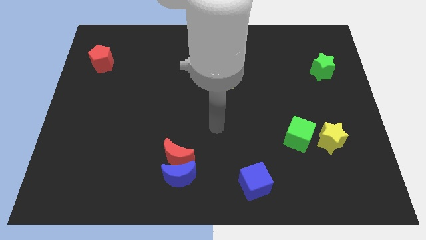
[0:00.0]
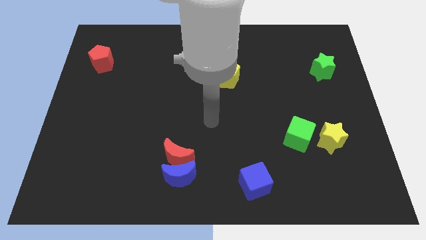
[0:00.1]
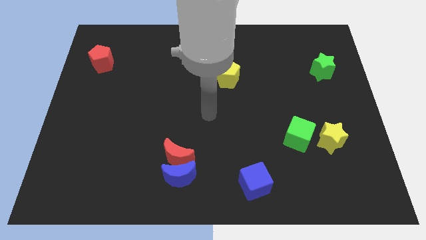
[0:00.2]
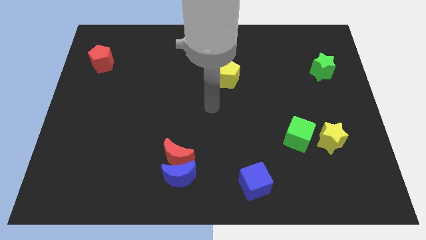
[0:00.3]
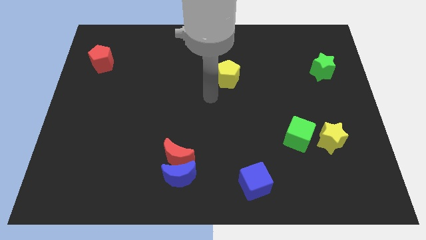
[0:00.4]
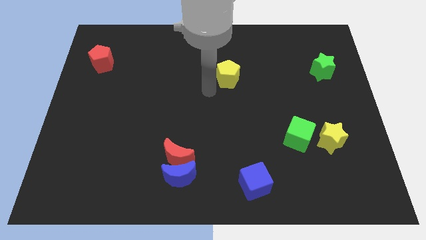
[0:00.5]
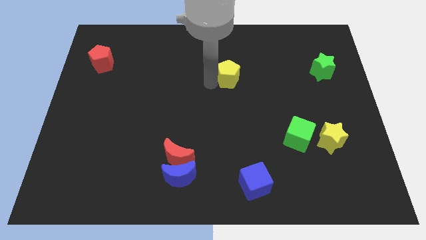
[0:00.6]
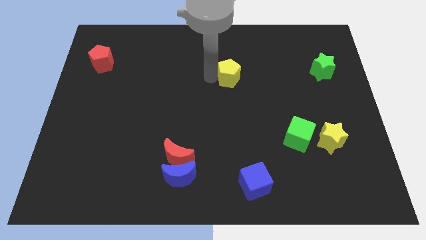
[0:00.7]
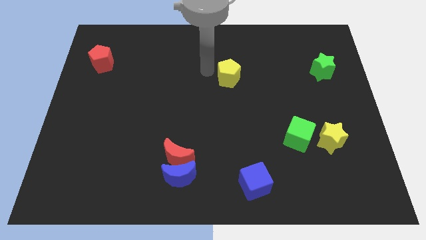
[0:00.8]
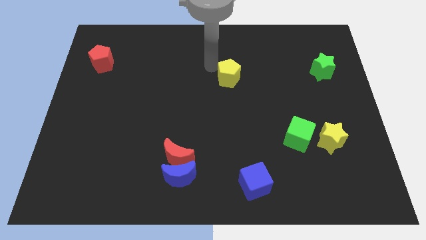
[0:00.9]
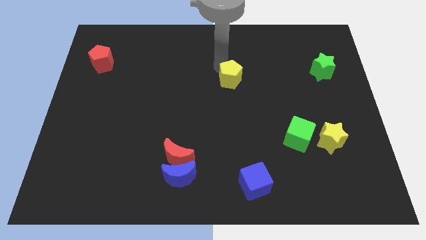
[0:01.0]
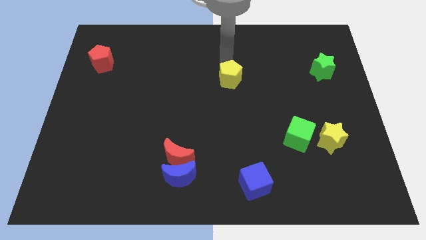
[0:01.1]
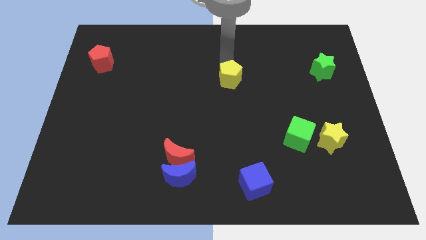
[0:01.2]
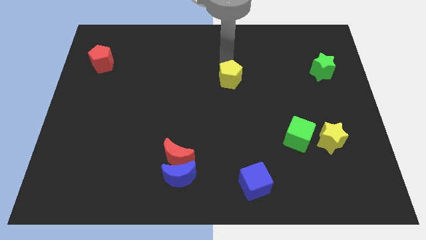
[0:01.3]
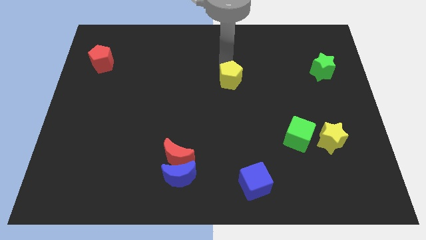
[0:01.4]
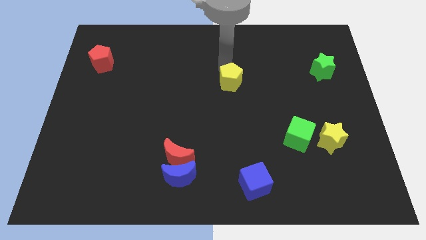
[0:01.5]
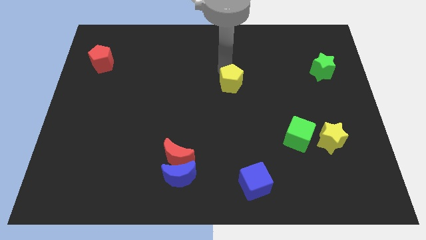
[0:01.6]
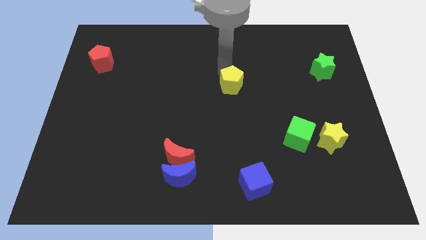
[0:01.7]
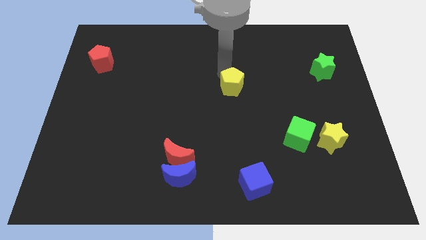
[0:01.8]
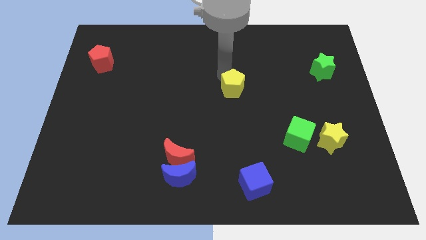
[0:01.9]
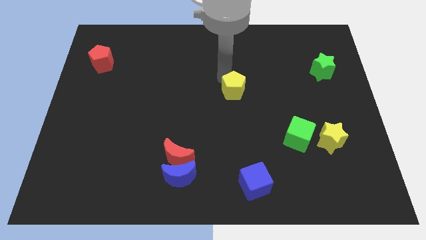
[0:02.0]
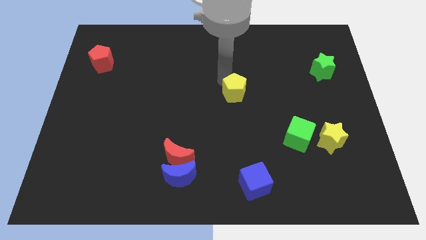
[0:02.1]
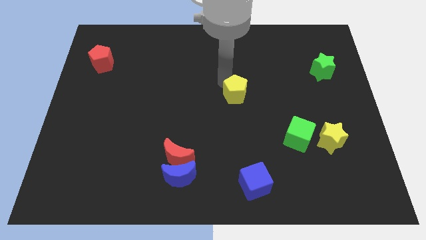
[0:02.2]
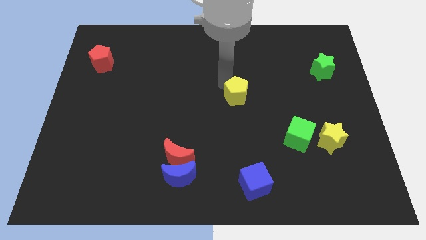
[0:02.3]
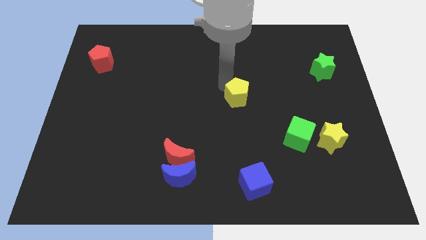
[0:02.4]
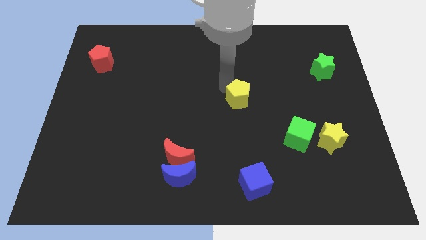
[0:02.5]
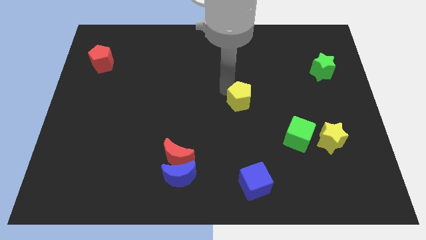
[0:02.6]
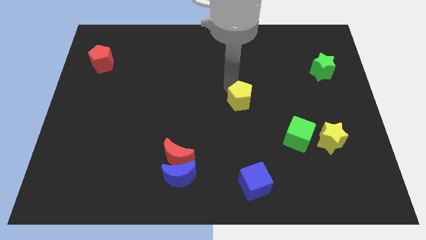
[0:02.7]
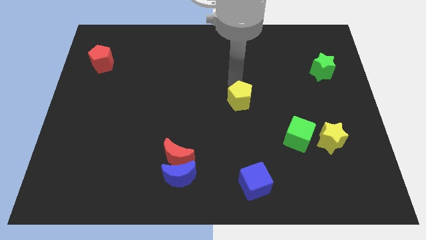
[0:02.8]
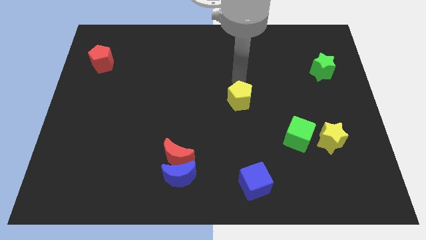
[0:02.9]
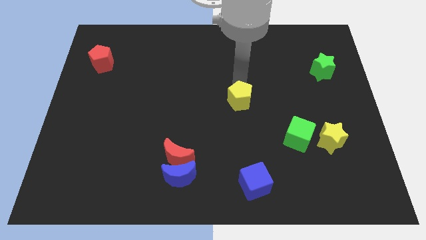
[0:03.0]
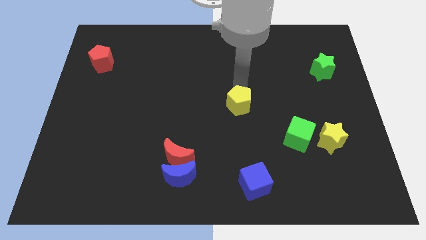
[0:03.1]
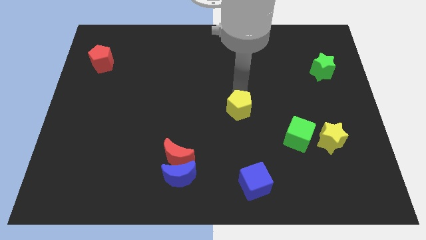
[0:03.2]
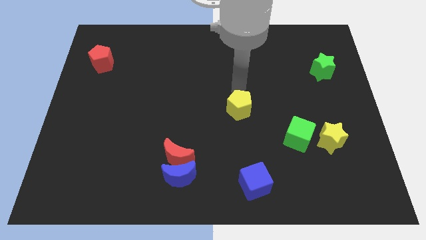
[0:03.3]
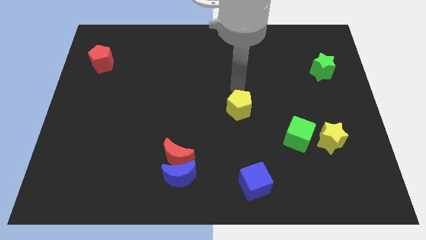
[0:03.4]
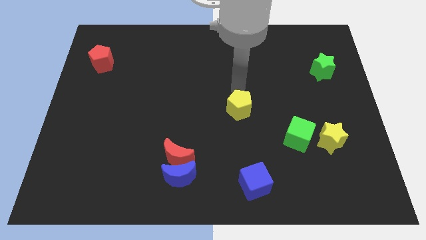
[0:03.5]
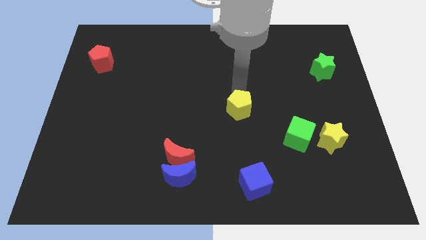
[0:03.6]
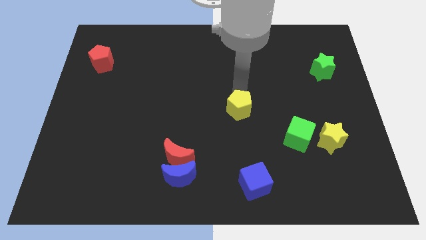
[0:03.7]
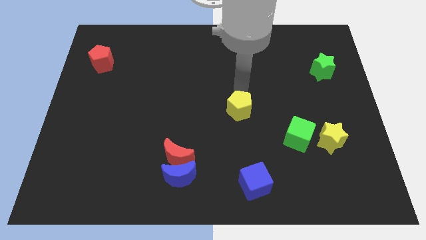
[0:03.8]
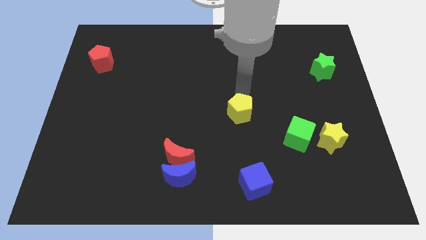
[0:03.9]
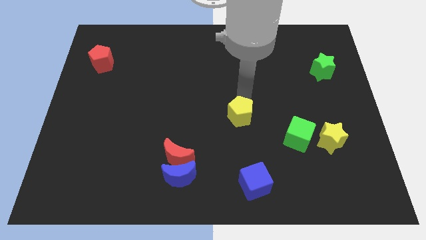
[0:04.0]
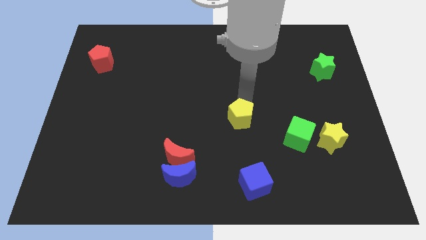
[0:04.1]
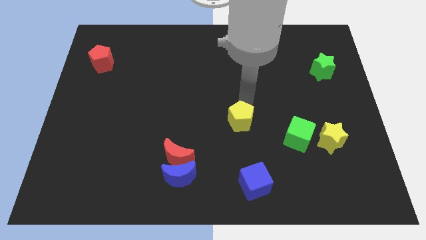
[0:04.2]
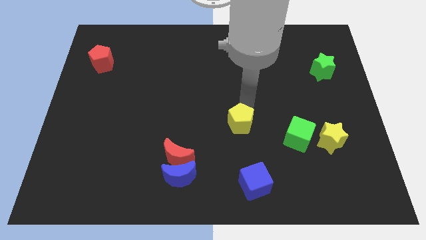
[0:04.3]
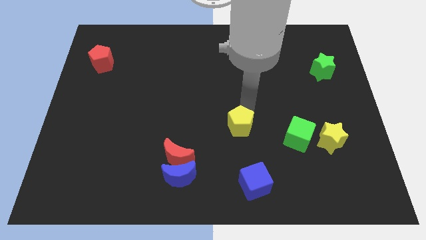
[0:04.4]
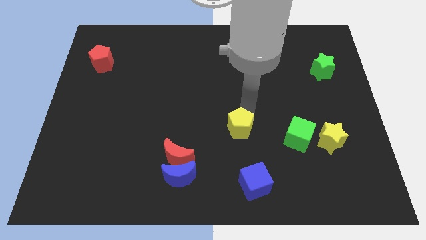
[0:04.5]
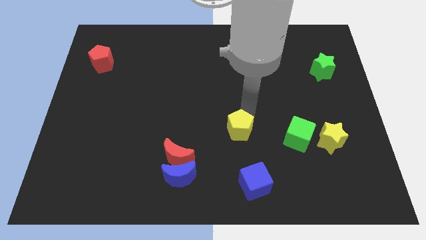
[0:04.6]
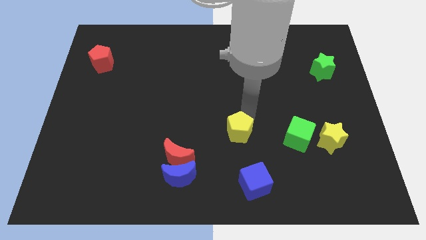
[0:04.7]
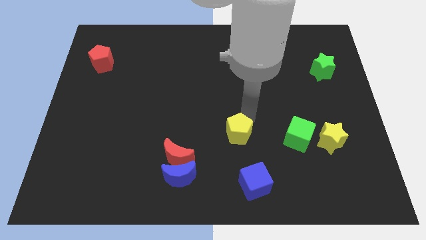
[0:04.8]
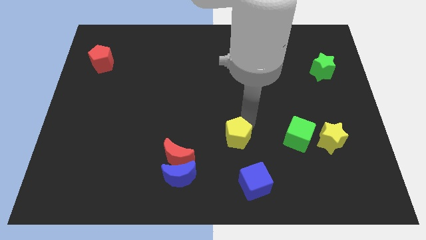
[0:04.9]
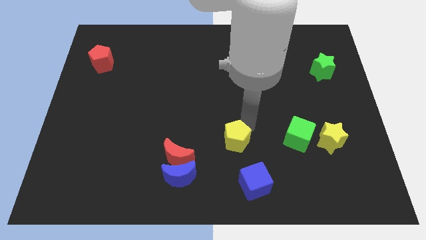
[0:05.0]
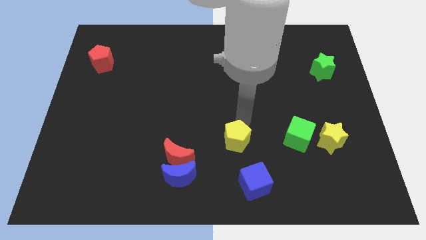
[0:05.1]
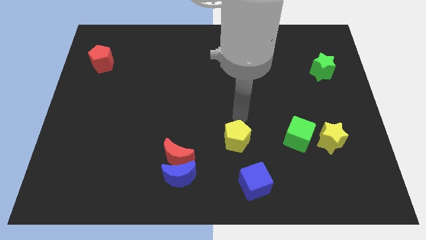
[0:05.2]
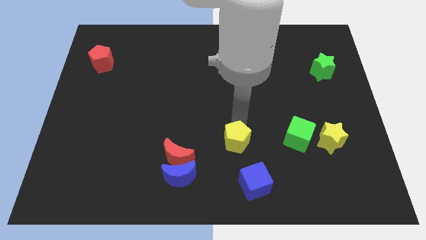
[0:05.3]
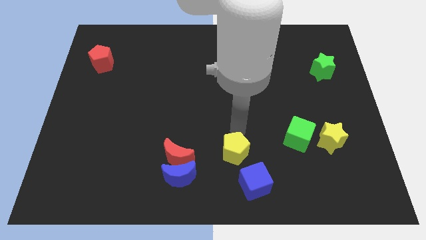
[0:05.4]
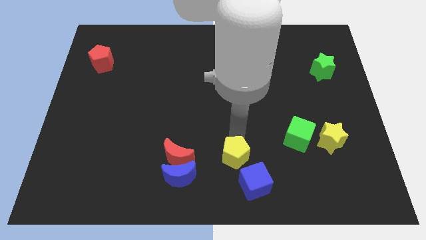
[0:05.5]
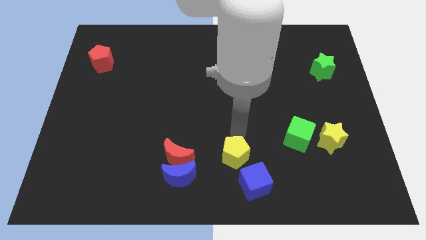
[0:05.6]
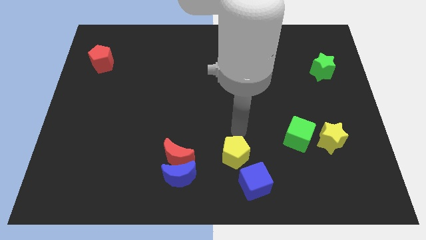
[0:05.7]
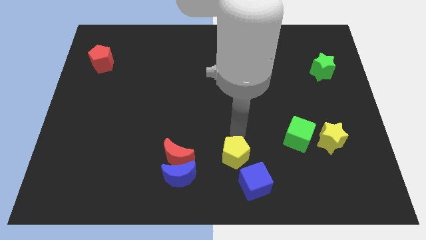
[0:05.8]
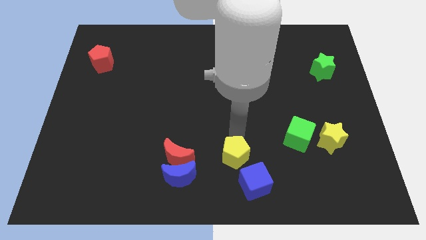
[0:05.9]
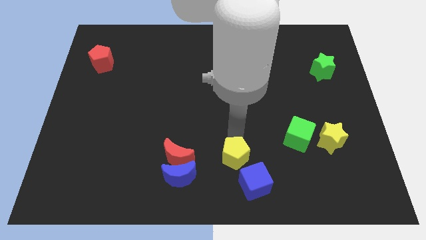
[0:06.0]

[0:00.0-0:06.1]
slide the yellow pentagon to the right of the blue moon
